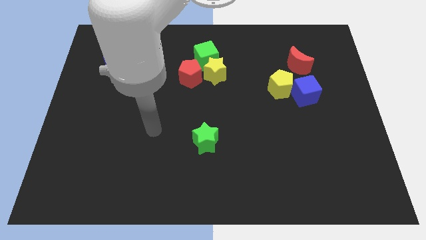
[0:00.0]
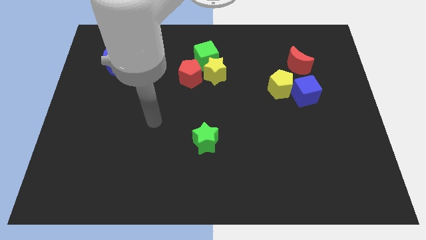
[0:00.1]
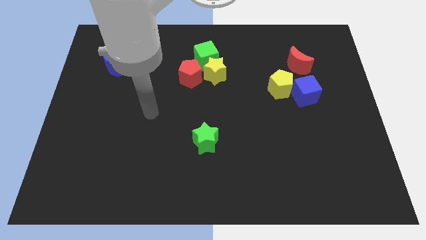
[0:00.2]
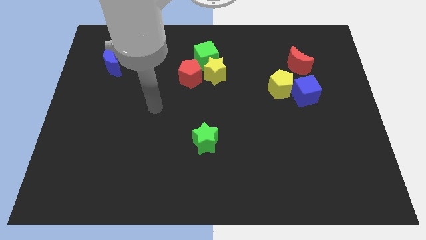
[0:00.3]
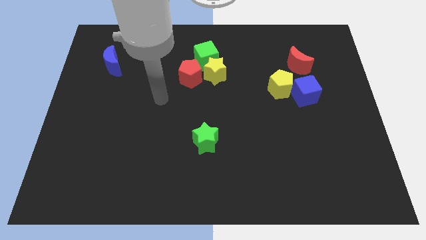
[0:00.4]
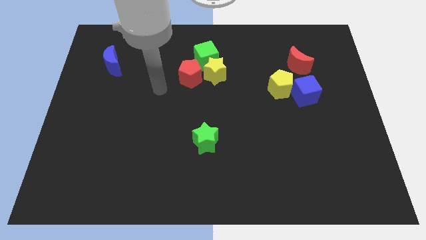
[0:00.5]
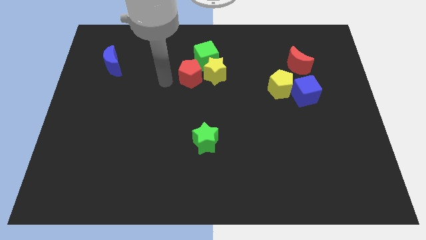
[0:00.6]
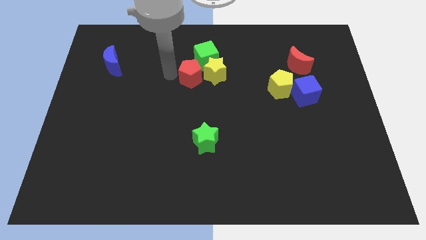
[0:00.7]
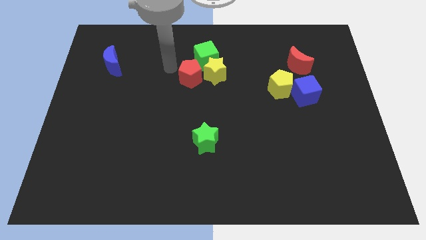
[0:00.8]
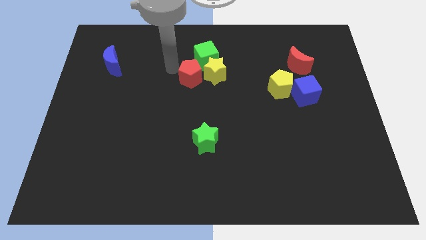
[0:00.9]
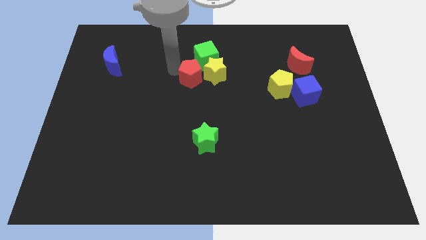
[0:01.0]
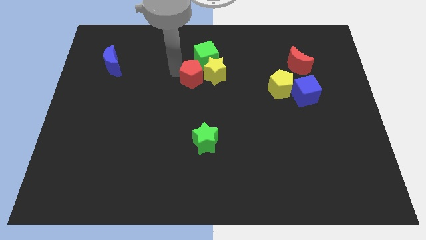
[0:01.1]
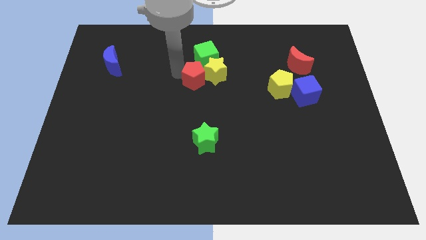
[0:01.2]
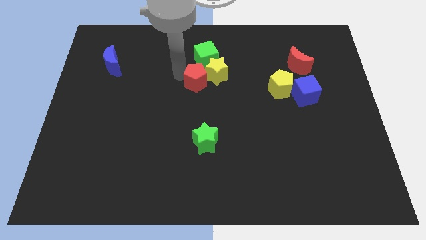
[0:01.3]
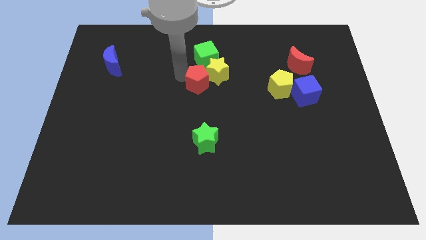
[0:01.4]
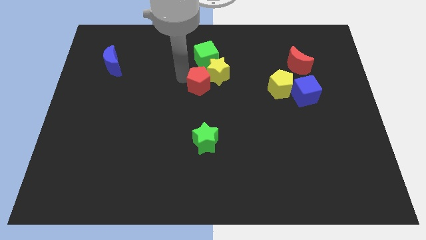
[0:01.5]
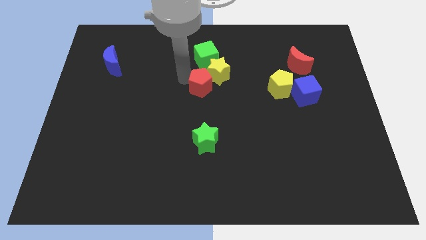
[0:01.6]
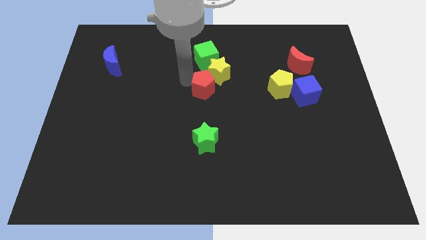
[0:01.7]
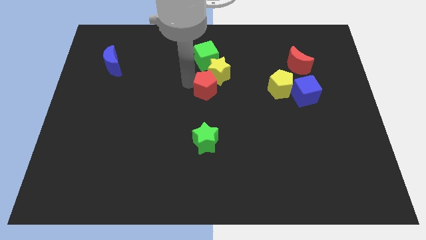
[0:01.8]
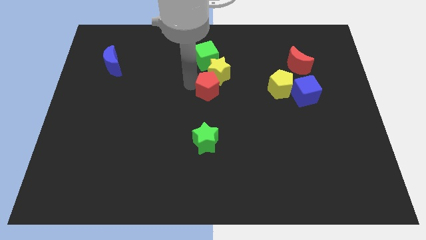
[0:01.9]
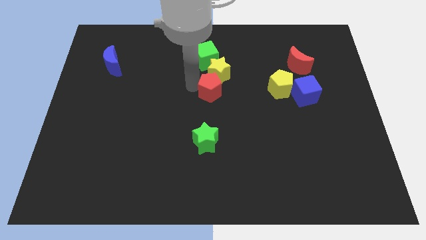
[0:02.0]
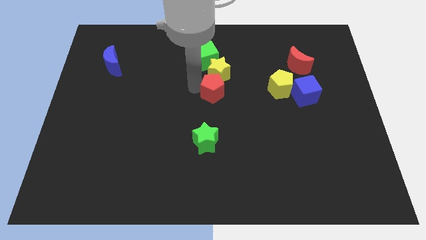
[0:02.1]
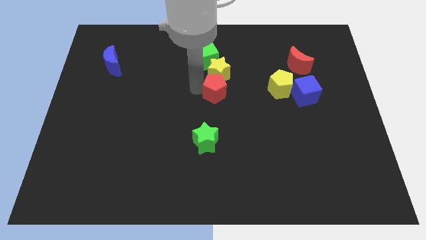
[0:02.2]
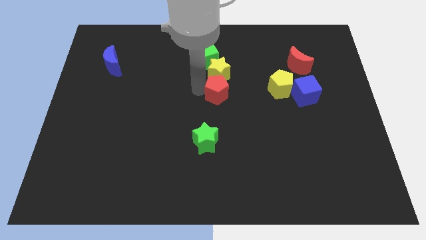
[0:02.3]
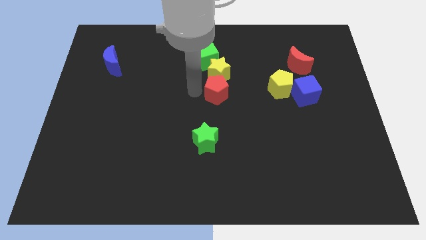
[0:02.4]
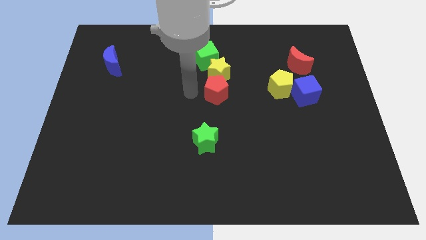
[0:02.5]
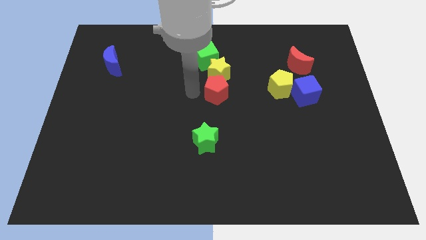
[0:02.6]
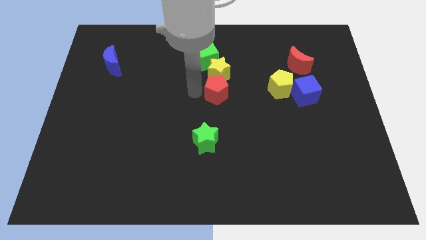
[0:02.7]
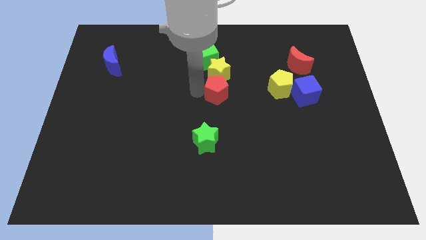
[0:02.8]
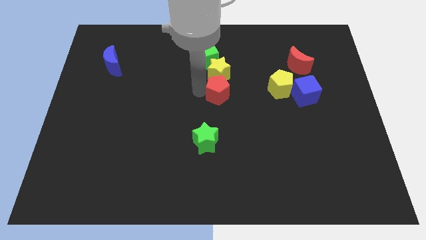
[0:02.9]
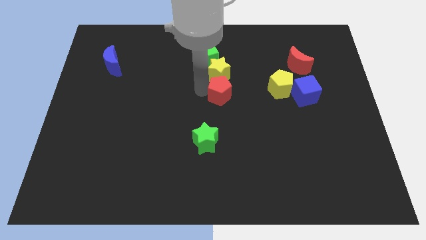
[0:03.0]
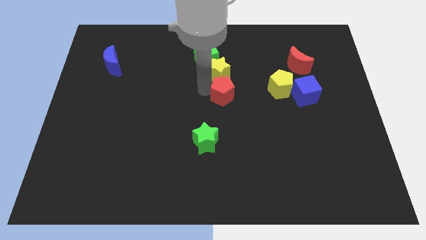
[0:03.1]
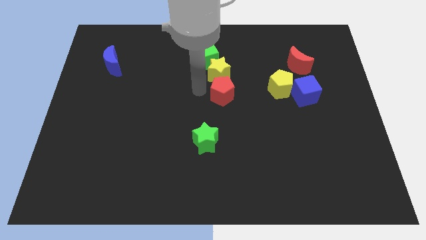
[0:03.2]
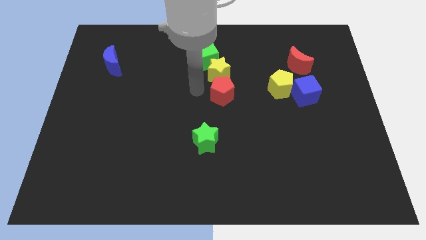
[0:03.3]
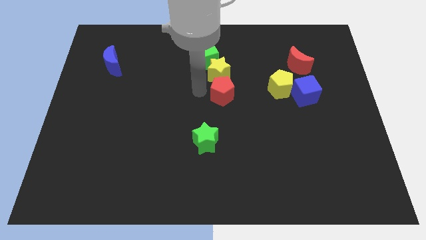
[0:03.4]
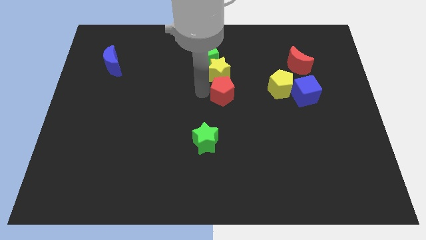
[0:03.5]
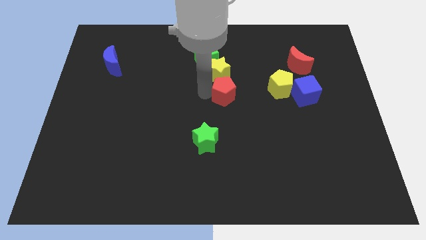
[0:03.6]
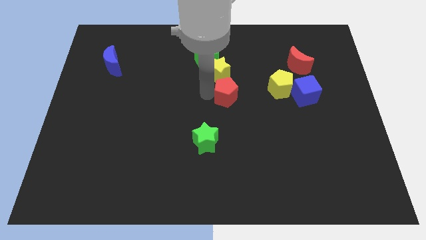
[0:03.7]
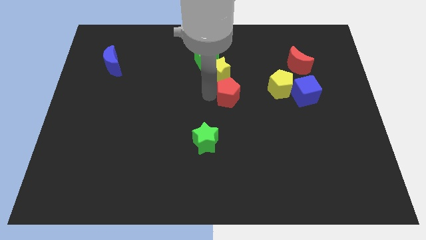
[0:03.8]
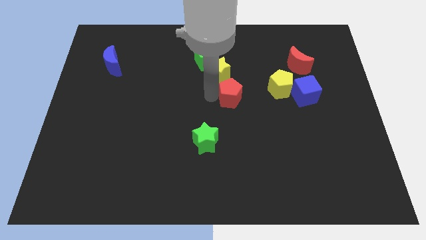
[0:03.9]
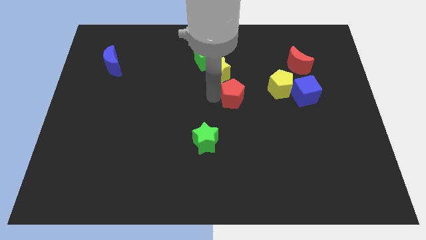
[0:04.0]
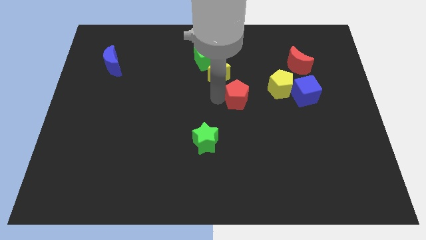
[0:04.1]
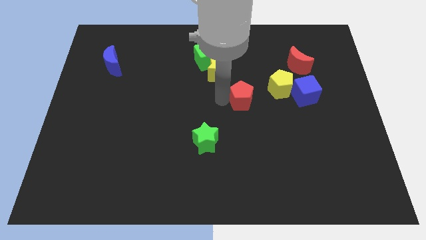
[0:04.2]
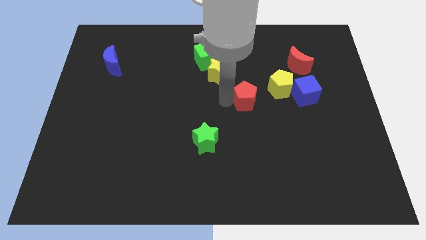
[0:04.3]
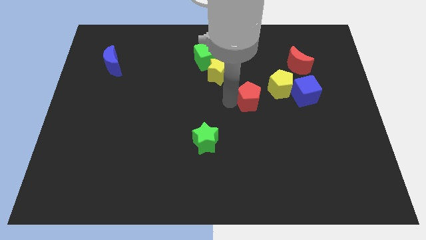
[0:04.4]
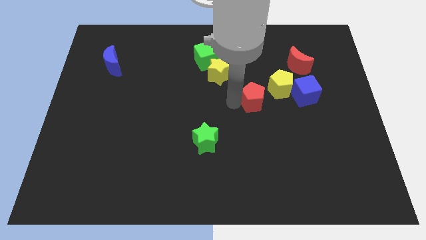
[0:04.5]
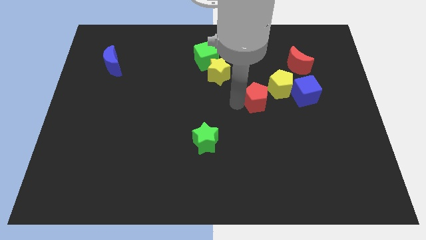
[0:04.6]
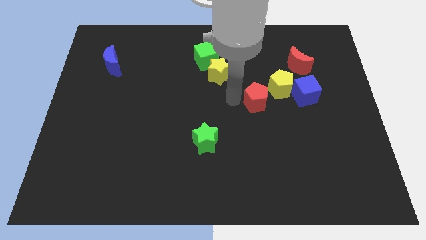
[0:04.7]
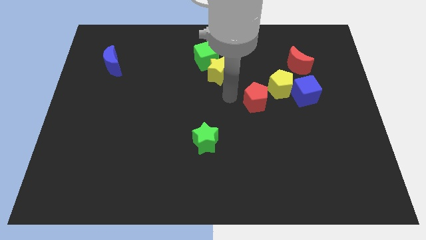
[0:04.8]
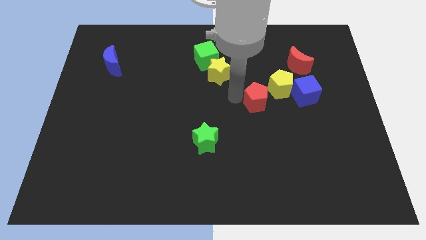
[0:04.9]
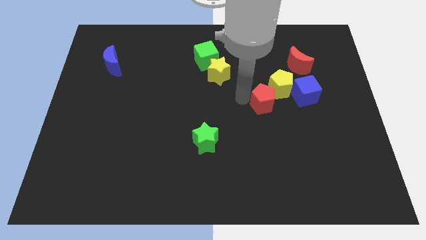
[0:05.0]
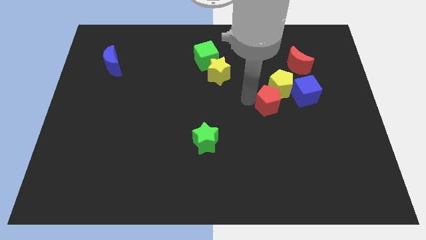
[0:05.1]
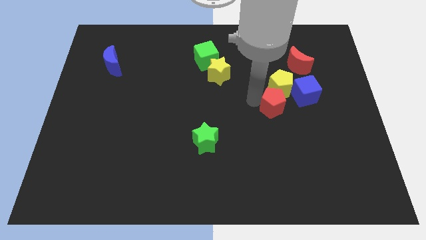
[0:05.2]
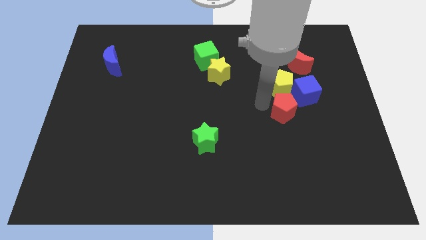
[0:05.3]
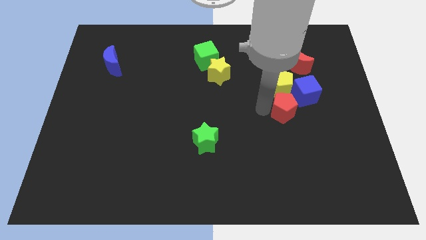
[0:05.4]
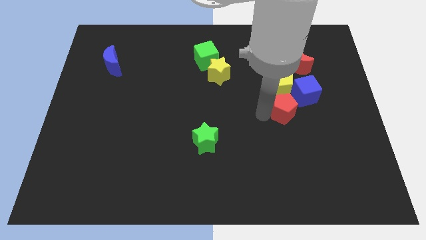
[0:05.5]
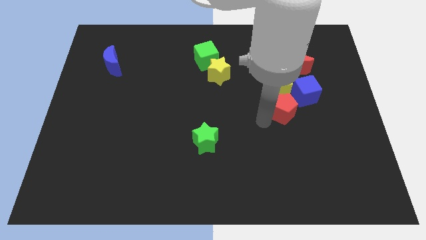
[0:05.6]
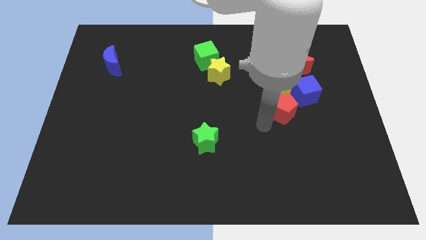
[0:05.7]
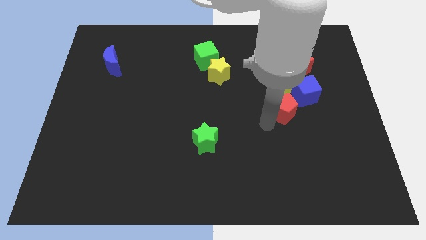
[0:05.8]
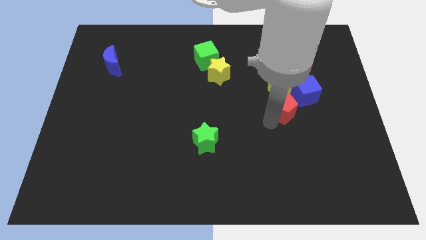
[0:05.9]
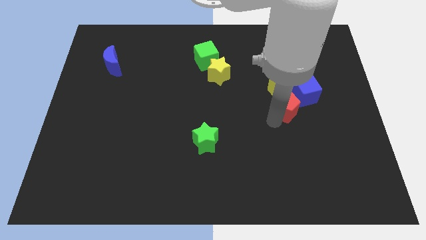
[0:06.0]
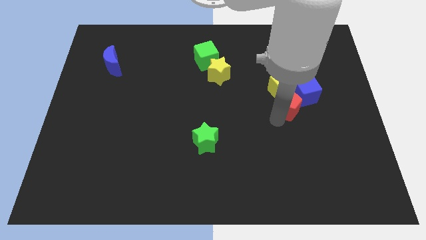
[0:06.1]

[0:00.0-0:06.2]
put the red pentagon next to the blue cube
